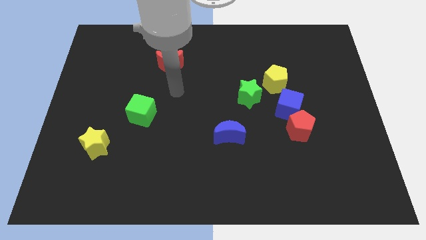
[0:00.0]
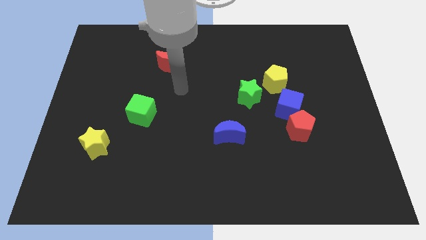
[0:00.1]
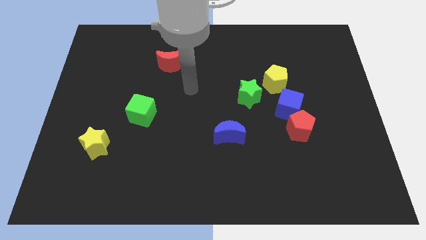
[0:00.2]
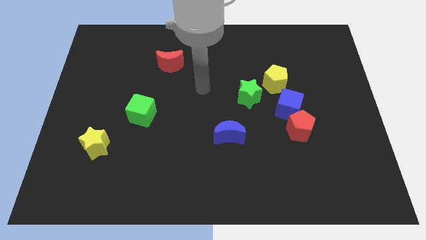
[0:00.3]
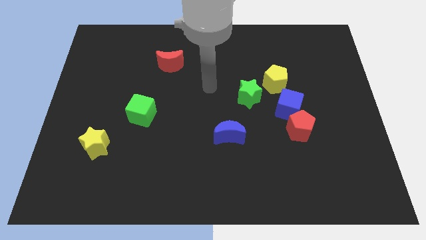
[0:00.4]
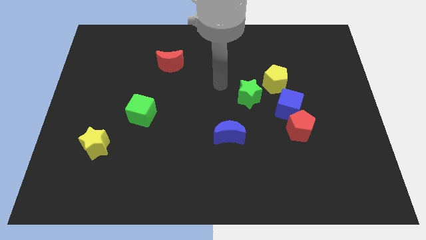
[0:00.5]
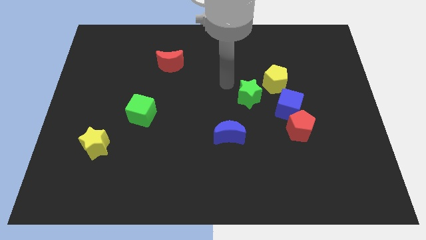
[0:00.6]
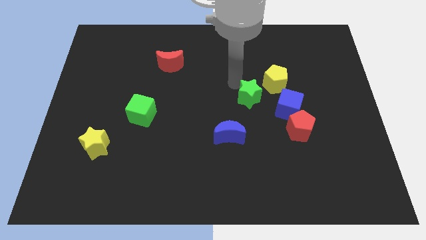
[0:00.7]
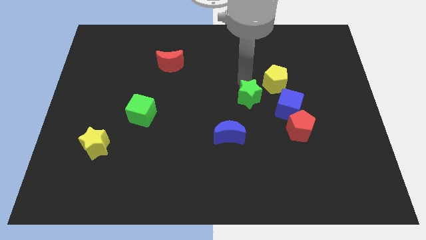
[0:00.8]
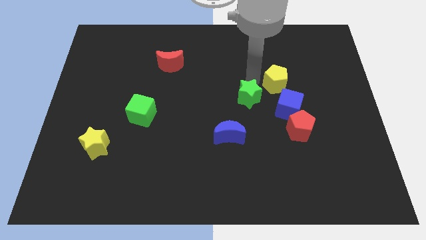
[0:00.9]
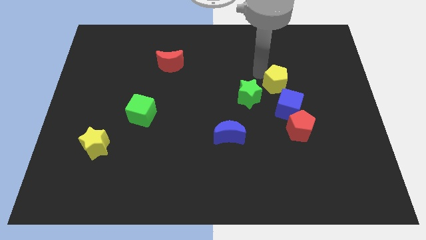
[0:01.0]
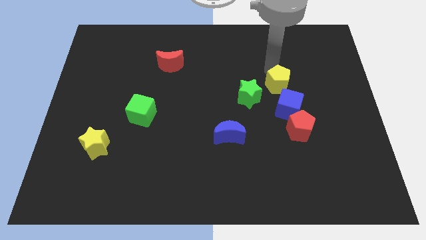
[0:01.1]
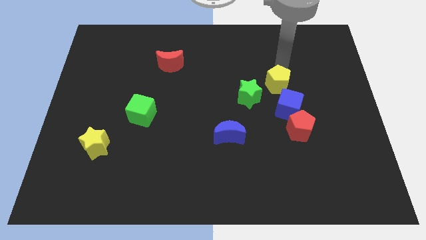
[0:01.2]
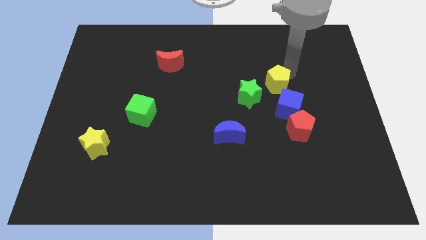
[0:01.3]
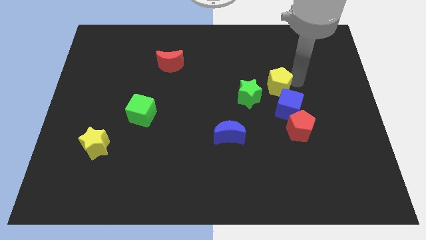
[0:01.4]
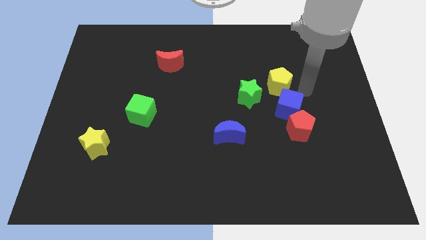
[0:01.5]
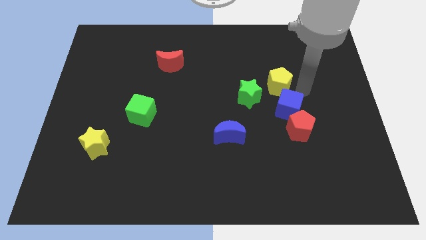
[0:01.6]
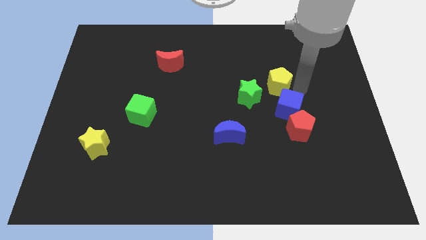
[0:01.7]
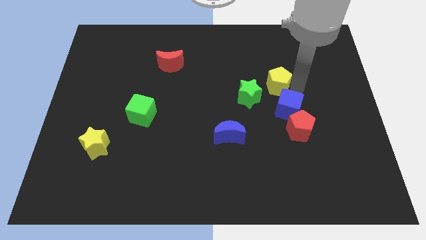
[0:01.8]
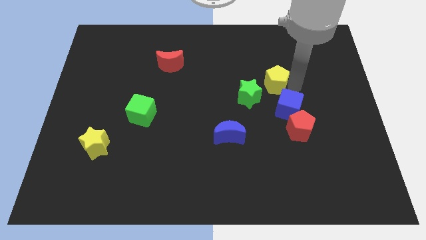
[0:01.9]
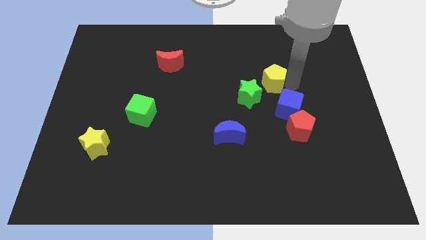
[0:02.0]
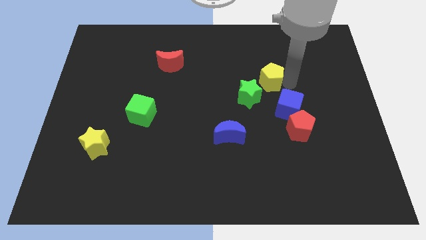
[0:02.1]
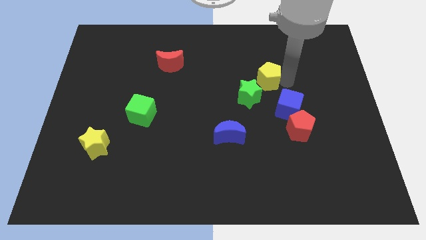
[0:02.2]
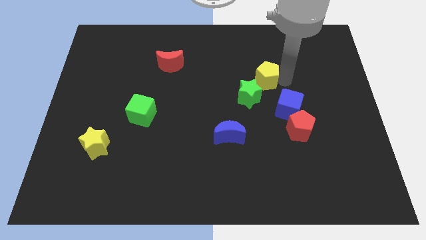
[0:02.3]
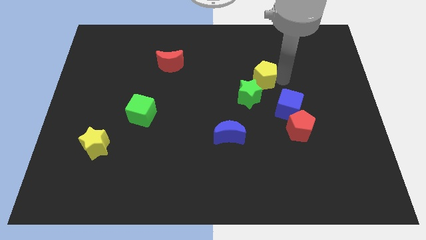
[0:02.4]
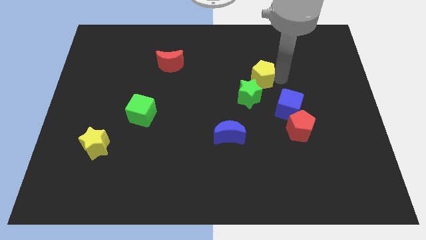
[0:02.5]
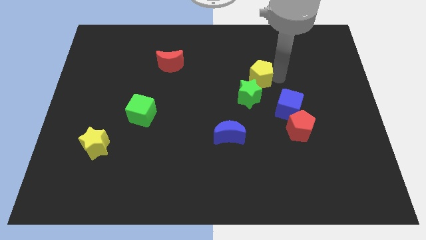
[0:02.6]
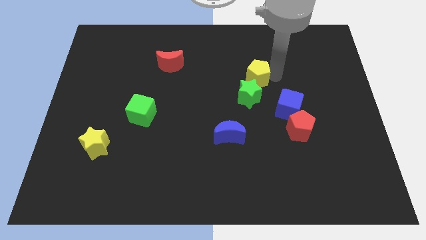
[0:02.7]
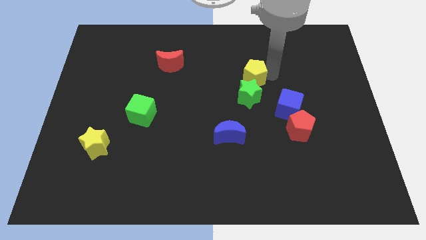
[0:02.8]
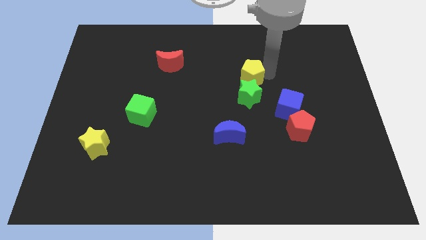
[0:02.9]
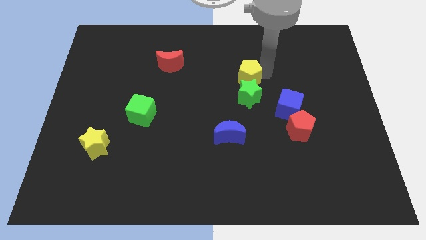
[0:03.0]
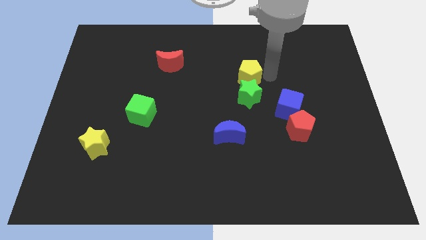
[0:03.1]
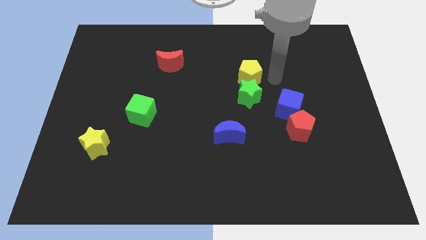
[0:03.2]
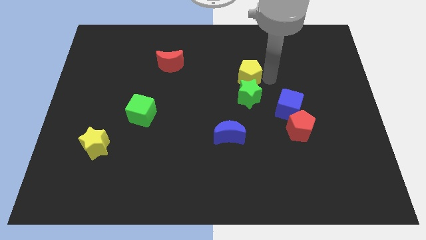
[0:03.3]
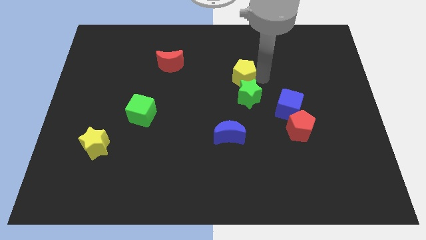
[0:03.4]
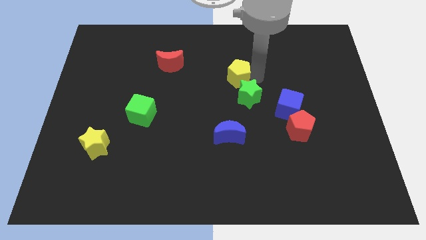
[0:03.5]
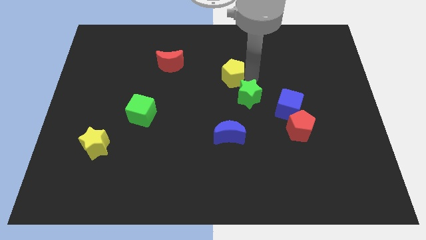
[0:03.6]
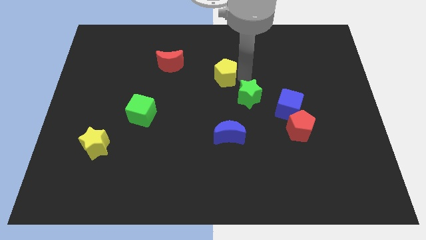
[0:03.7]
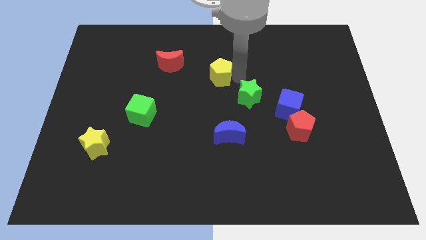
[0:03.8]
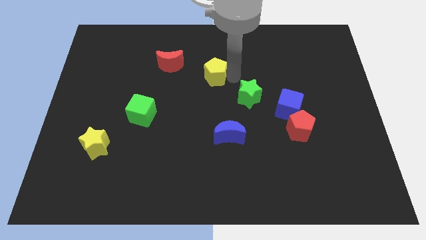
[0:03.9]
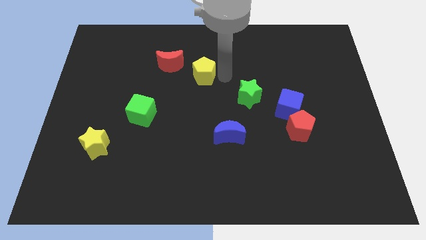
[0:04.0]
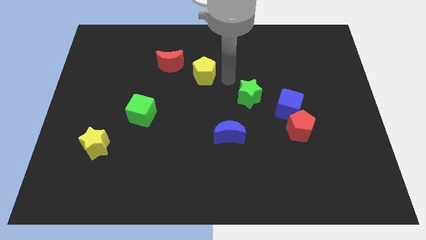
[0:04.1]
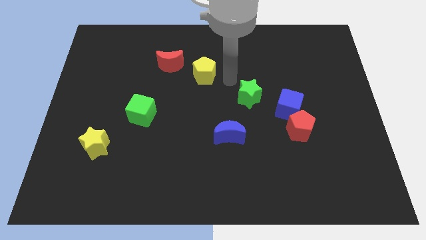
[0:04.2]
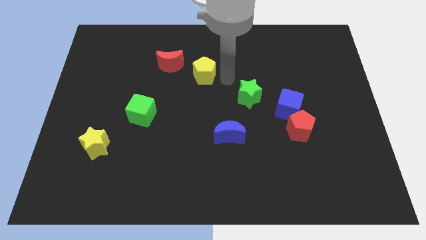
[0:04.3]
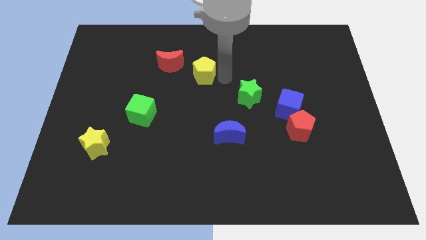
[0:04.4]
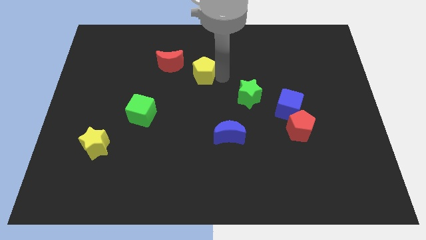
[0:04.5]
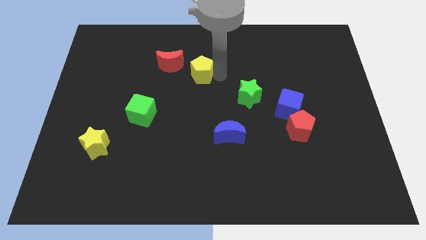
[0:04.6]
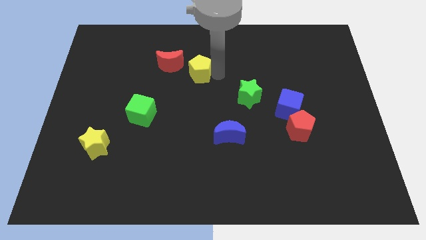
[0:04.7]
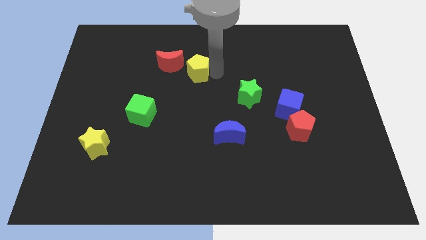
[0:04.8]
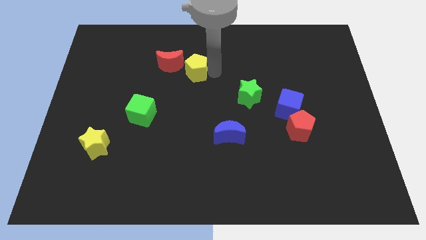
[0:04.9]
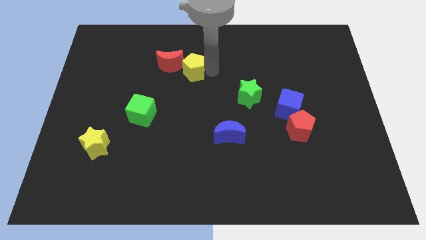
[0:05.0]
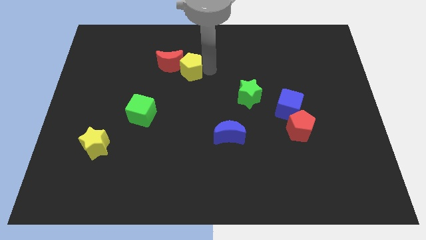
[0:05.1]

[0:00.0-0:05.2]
move the yellow pentagon to the red moon
